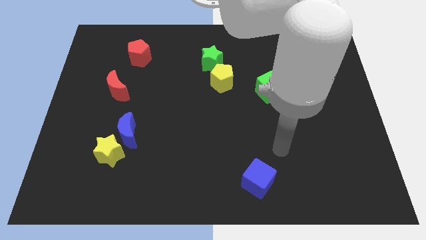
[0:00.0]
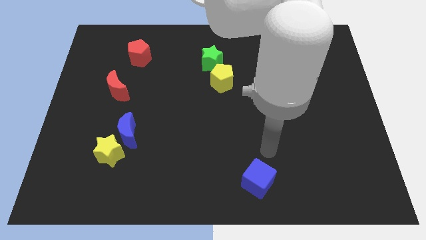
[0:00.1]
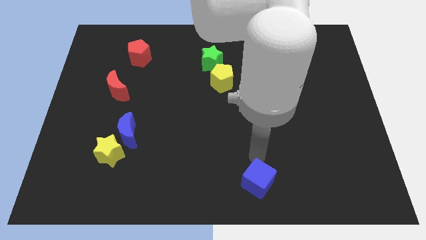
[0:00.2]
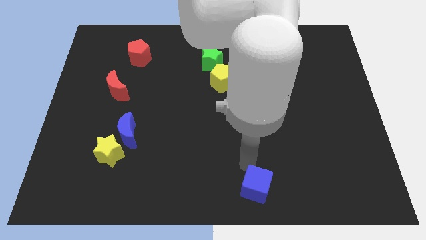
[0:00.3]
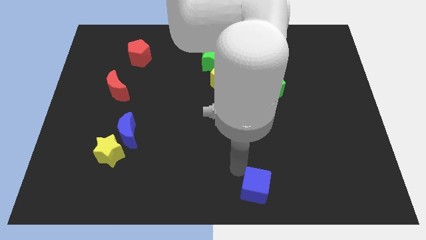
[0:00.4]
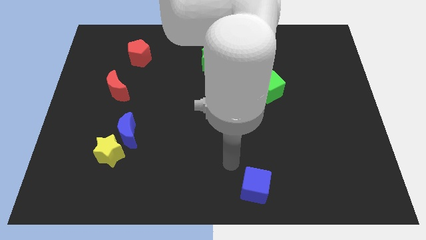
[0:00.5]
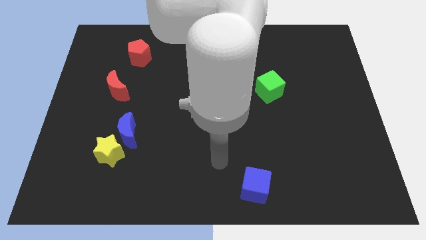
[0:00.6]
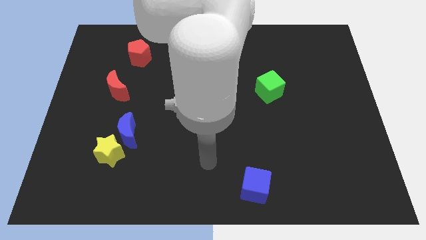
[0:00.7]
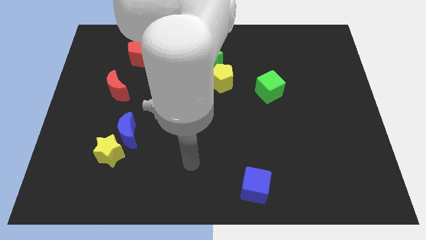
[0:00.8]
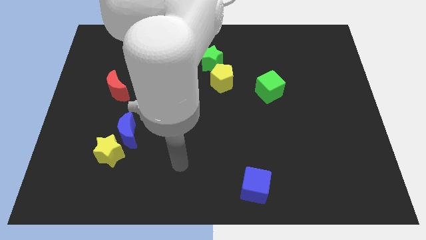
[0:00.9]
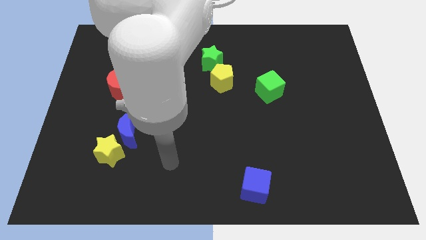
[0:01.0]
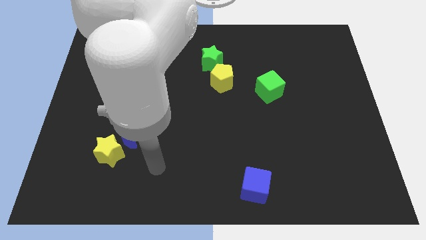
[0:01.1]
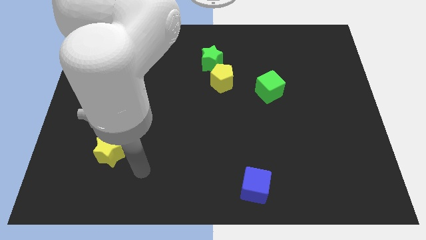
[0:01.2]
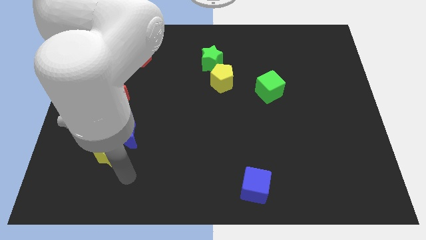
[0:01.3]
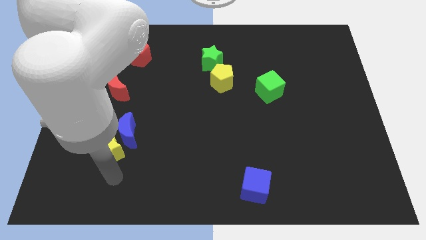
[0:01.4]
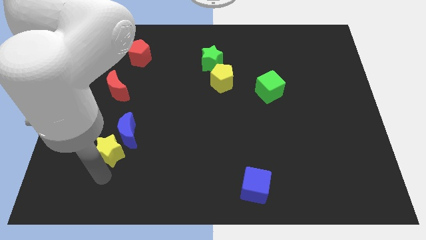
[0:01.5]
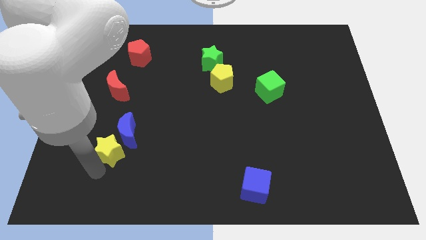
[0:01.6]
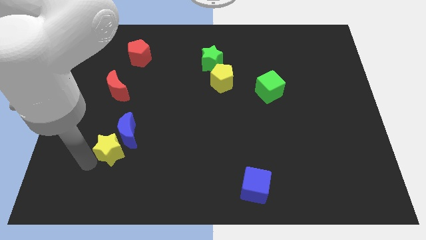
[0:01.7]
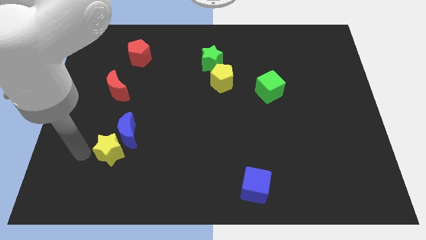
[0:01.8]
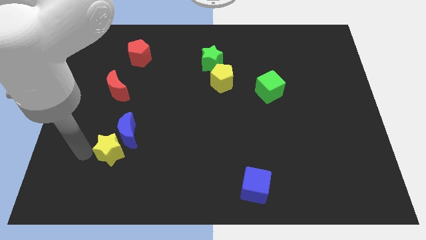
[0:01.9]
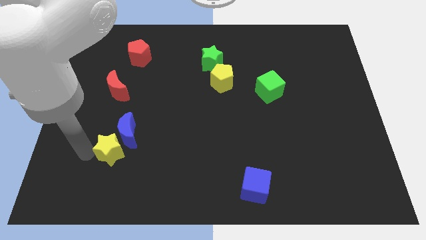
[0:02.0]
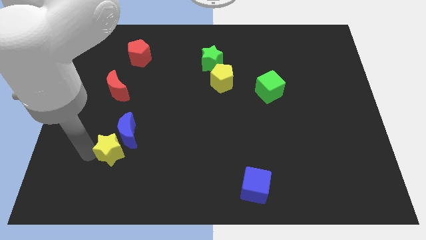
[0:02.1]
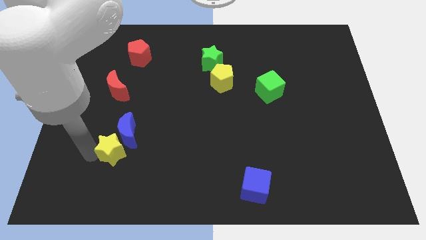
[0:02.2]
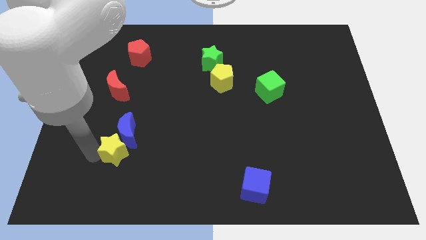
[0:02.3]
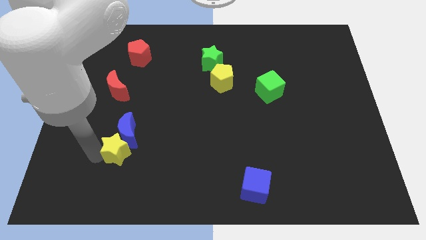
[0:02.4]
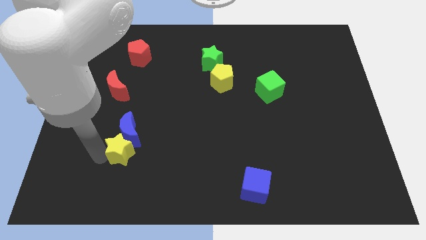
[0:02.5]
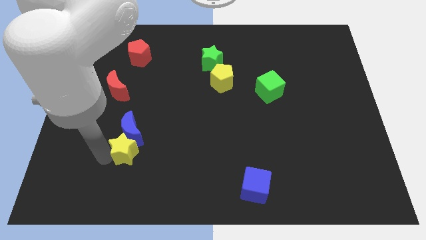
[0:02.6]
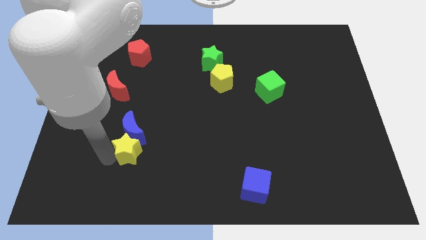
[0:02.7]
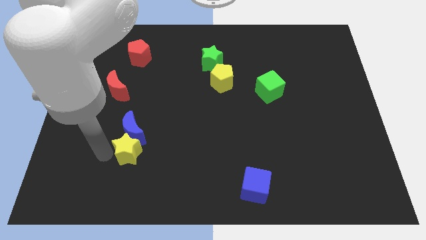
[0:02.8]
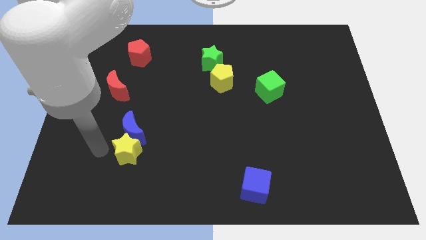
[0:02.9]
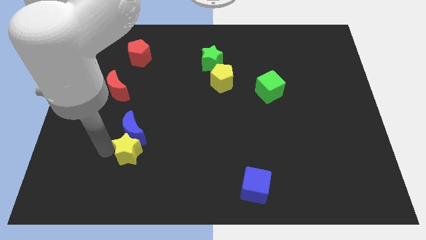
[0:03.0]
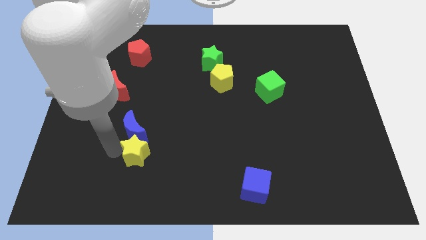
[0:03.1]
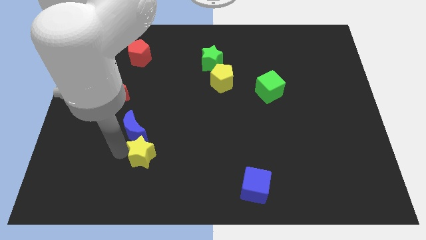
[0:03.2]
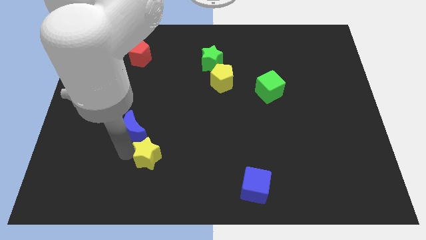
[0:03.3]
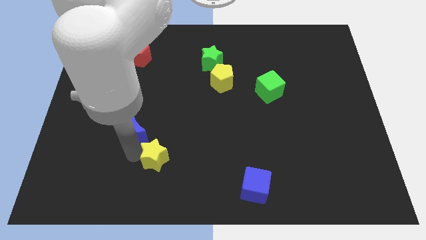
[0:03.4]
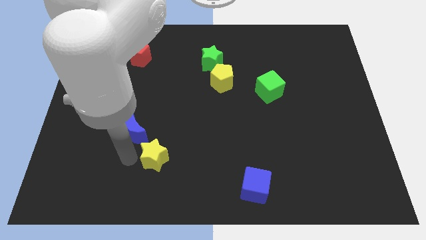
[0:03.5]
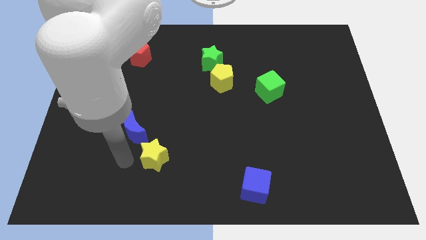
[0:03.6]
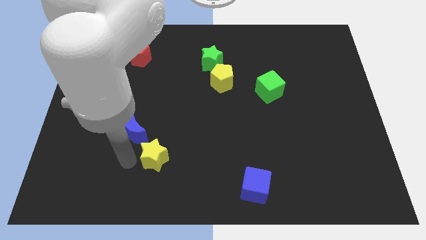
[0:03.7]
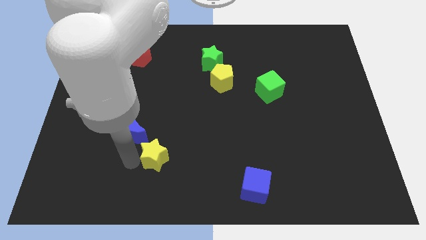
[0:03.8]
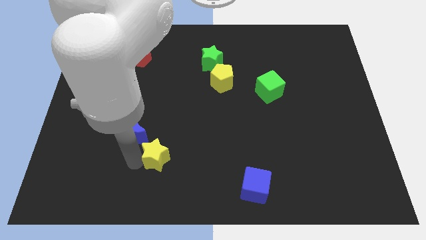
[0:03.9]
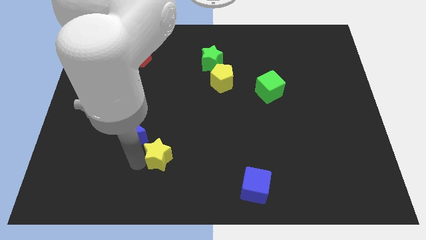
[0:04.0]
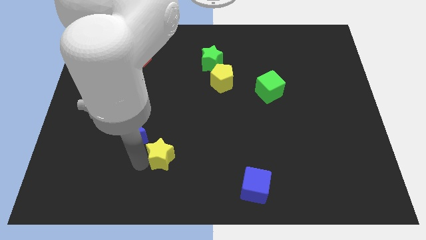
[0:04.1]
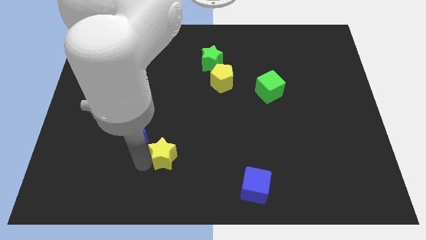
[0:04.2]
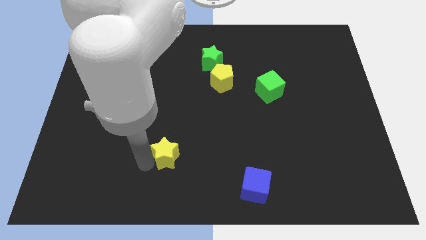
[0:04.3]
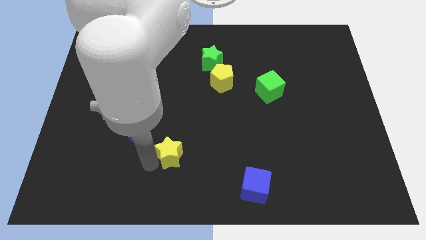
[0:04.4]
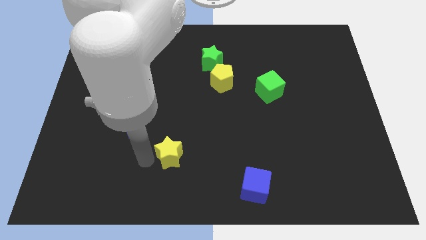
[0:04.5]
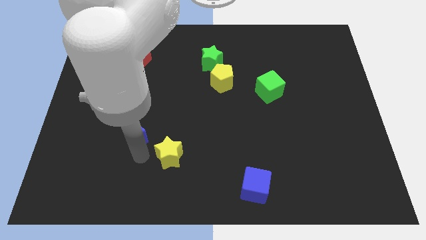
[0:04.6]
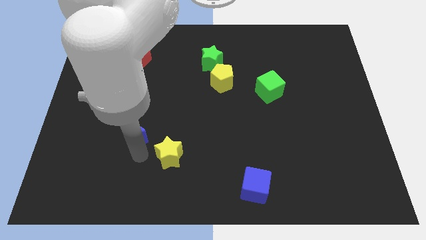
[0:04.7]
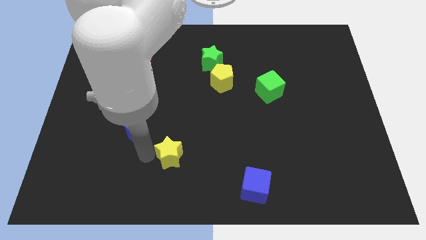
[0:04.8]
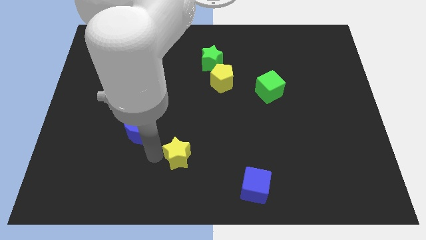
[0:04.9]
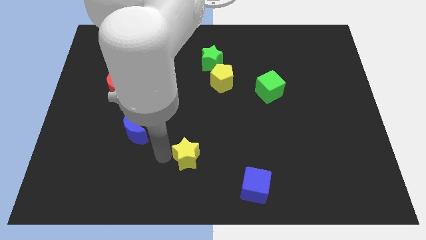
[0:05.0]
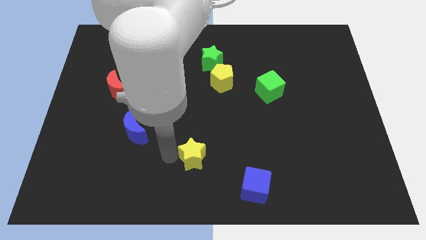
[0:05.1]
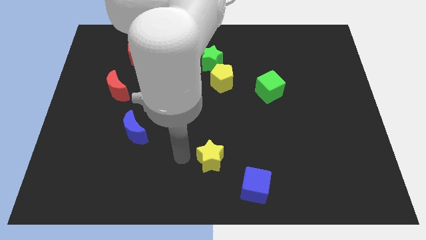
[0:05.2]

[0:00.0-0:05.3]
move the yellow star right

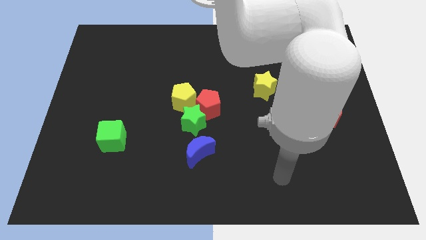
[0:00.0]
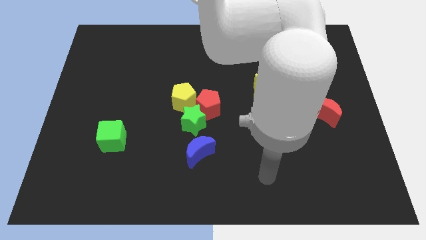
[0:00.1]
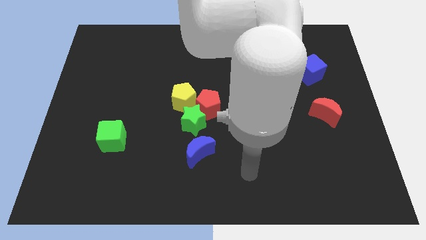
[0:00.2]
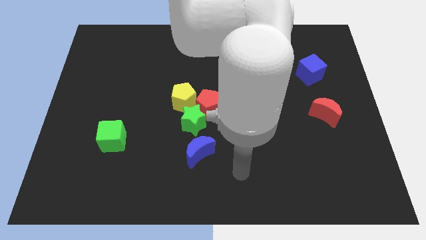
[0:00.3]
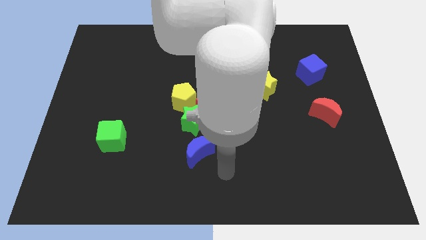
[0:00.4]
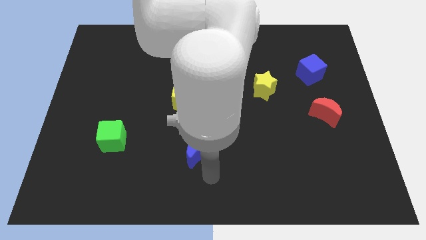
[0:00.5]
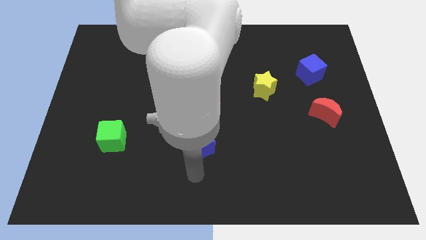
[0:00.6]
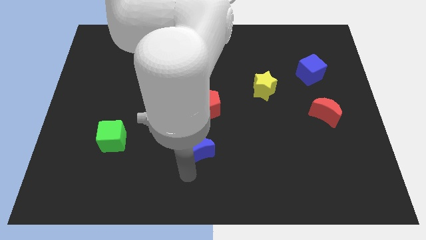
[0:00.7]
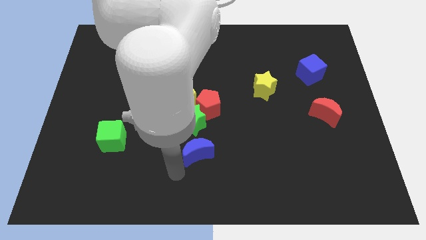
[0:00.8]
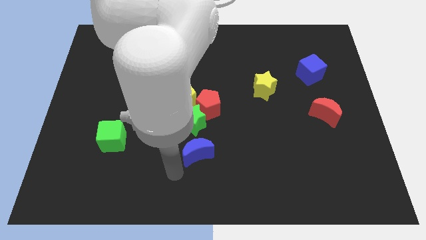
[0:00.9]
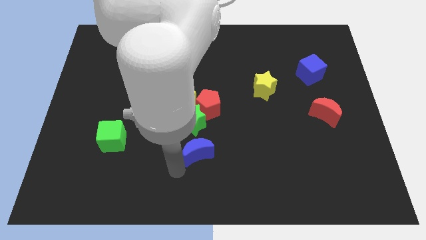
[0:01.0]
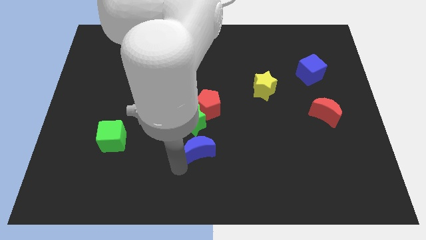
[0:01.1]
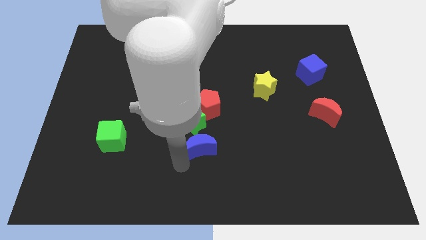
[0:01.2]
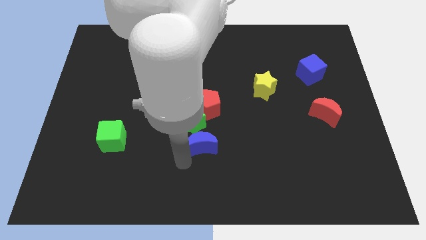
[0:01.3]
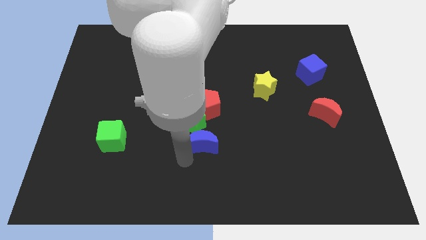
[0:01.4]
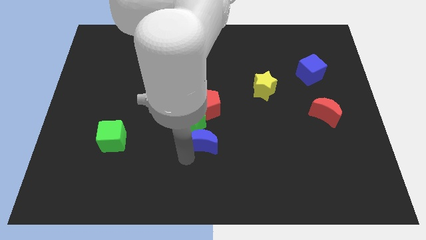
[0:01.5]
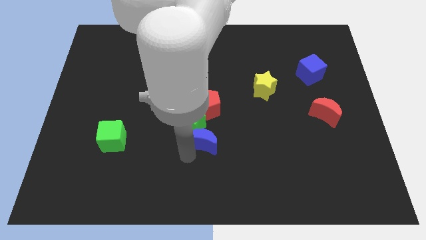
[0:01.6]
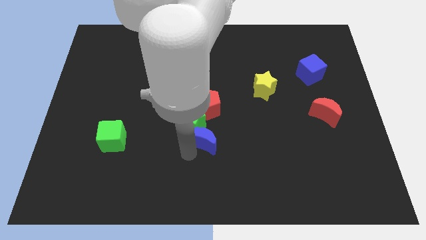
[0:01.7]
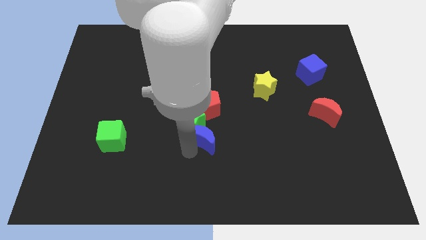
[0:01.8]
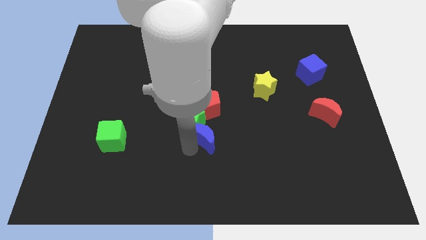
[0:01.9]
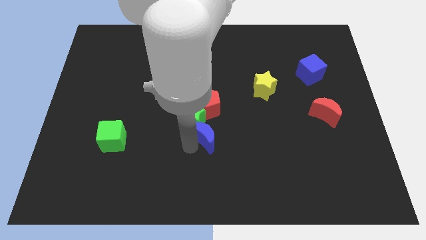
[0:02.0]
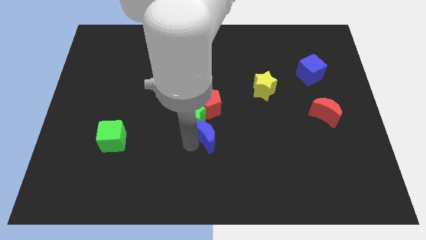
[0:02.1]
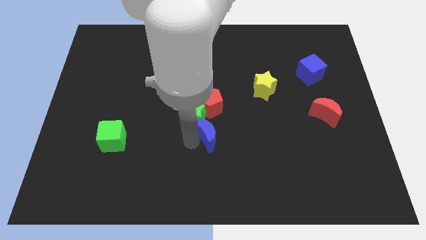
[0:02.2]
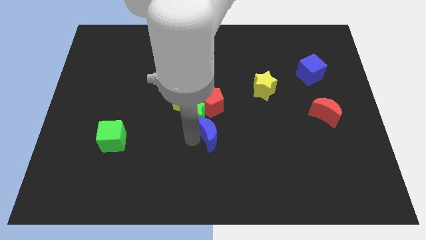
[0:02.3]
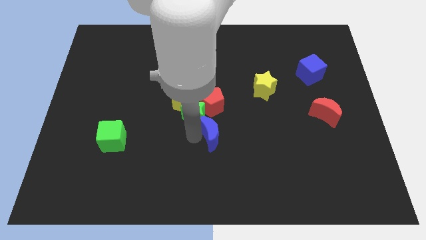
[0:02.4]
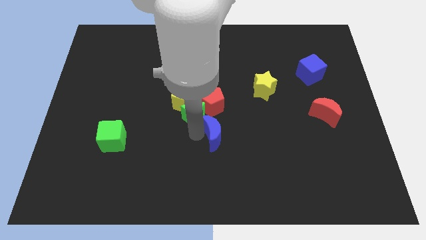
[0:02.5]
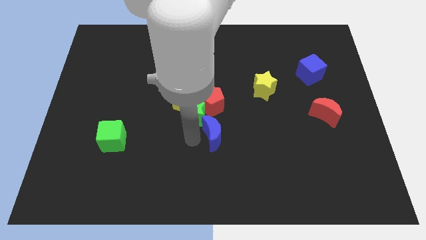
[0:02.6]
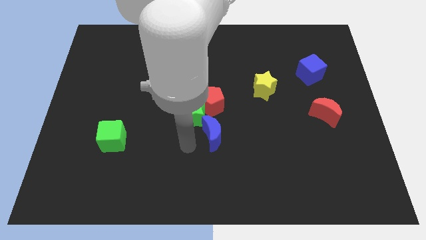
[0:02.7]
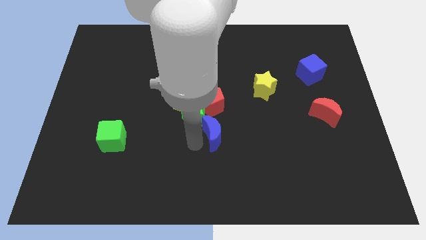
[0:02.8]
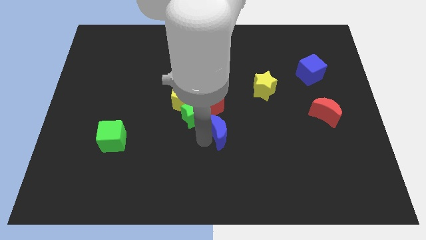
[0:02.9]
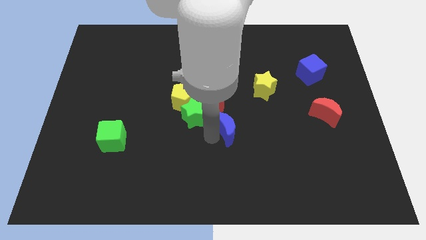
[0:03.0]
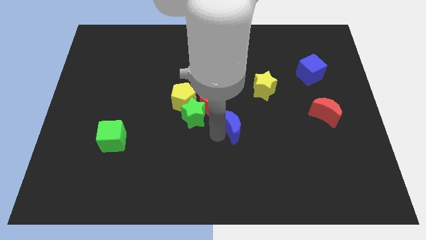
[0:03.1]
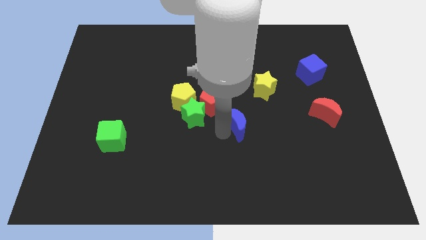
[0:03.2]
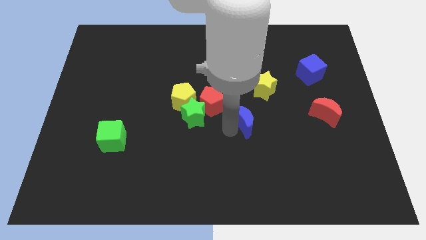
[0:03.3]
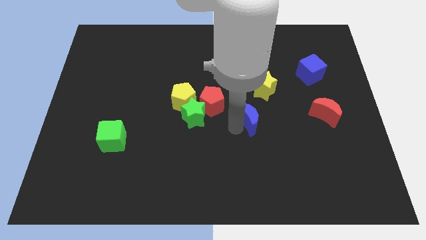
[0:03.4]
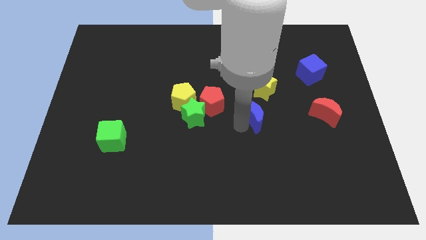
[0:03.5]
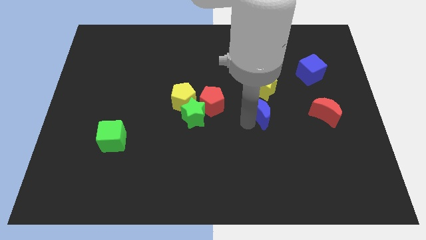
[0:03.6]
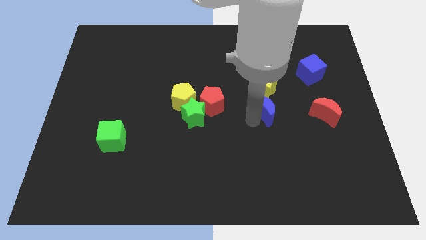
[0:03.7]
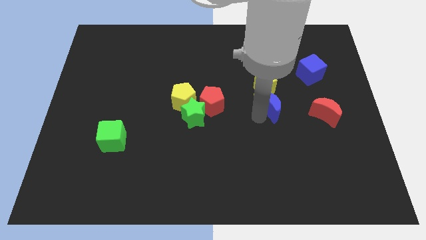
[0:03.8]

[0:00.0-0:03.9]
move the blue moon upwards and to the right diagonally
